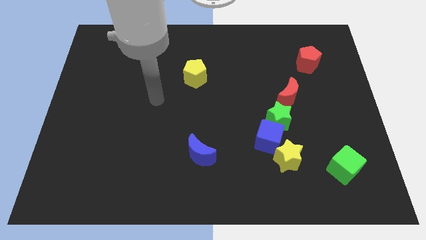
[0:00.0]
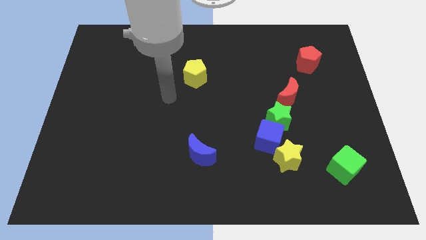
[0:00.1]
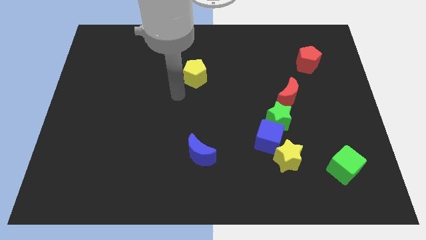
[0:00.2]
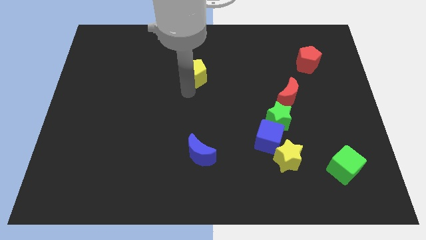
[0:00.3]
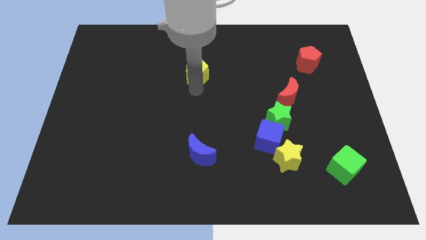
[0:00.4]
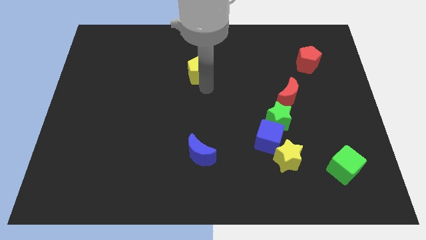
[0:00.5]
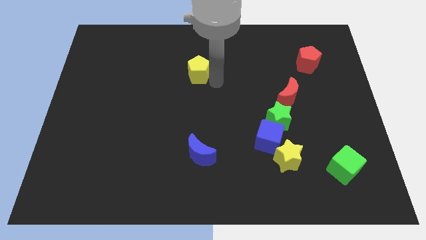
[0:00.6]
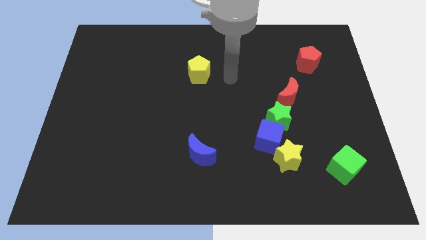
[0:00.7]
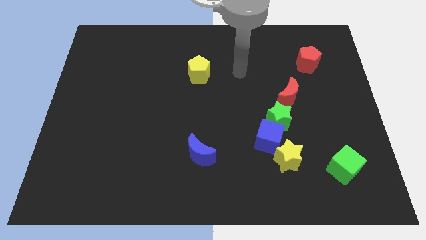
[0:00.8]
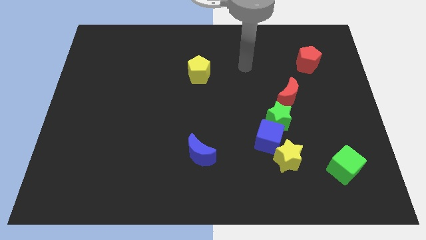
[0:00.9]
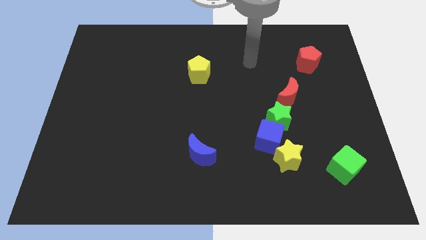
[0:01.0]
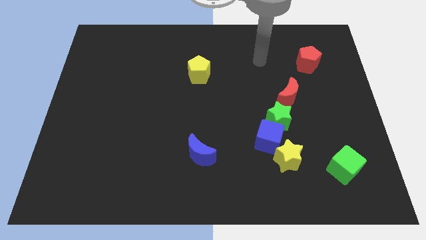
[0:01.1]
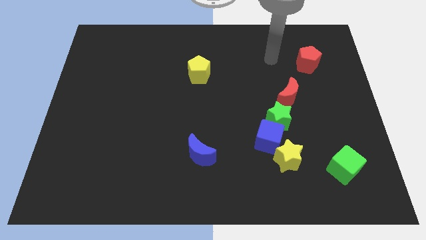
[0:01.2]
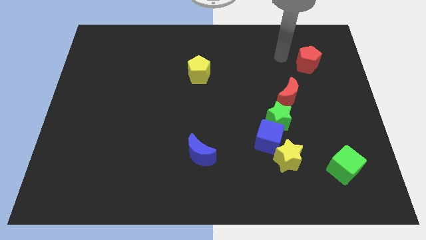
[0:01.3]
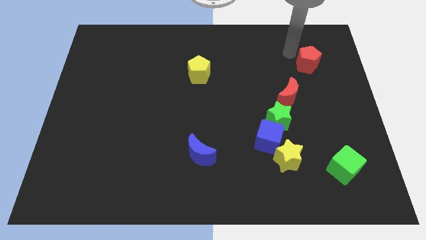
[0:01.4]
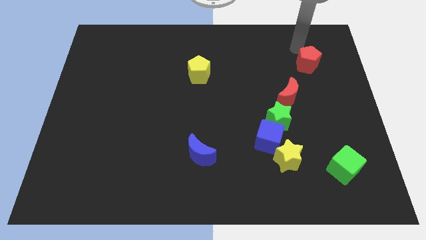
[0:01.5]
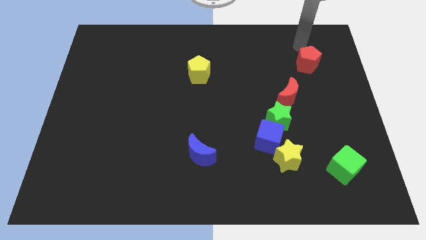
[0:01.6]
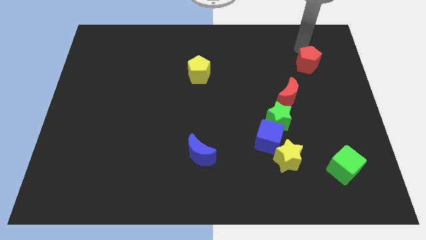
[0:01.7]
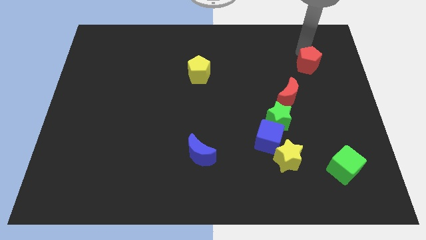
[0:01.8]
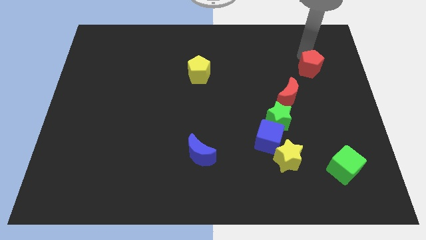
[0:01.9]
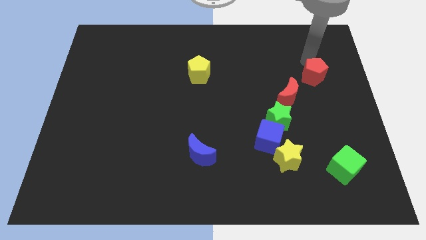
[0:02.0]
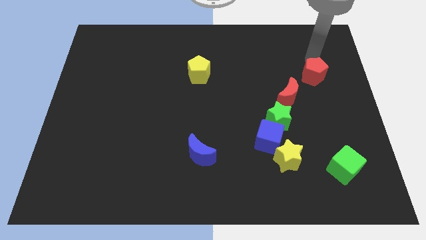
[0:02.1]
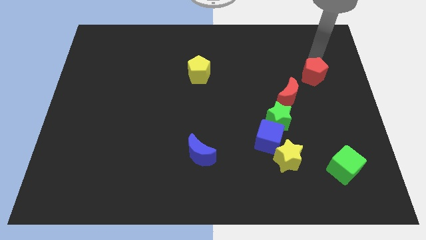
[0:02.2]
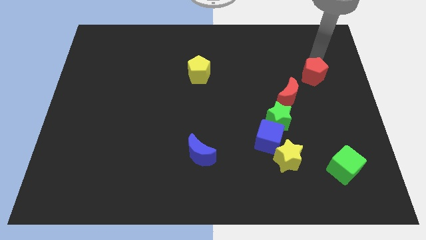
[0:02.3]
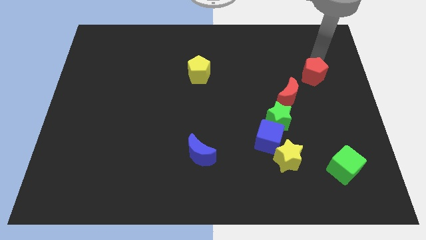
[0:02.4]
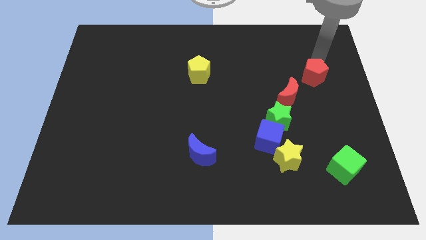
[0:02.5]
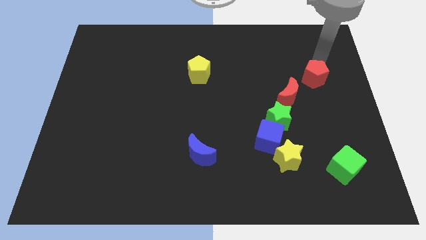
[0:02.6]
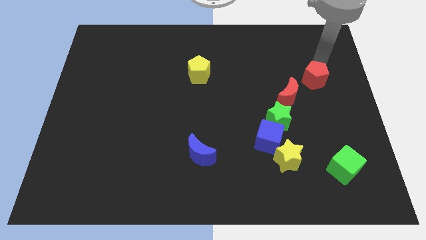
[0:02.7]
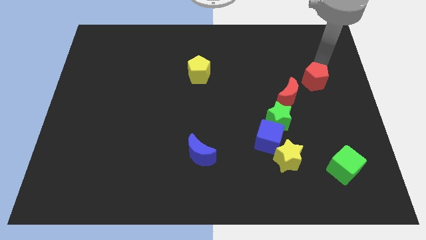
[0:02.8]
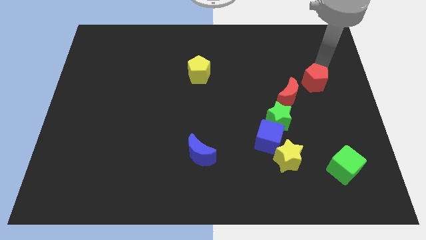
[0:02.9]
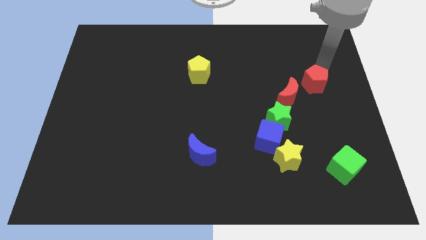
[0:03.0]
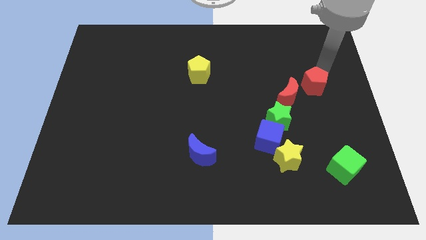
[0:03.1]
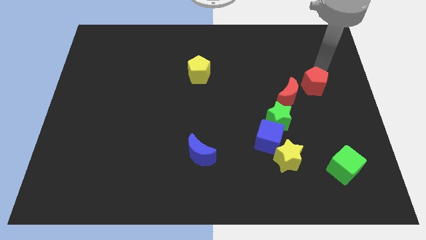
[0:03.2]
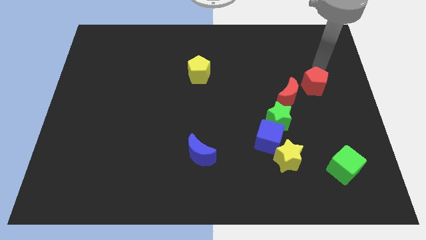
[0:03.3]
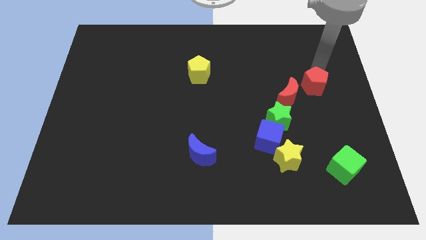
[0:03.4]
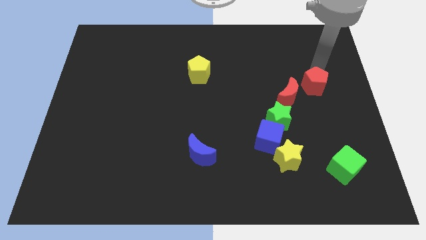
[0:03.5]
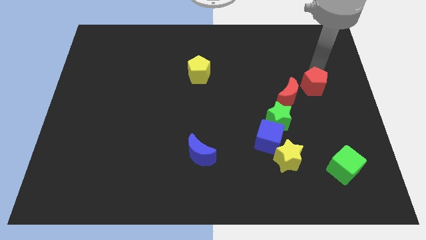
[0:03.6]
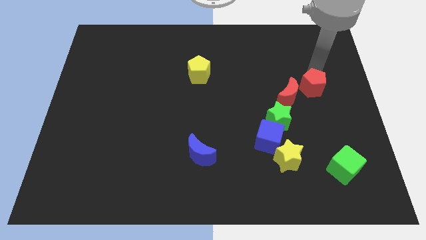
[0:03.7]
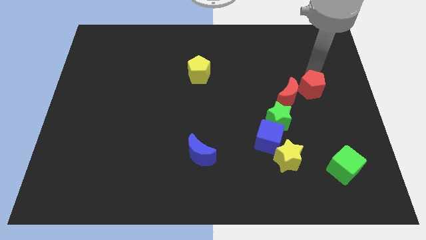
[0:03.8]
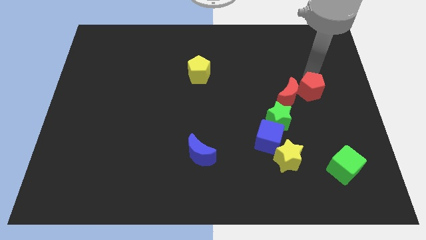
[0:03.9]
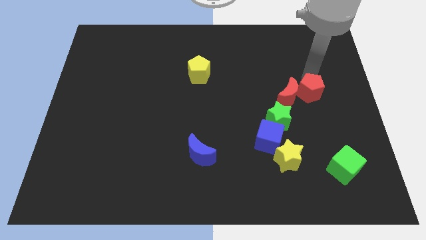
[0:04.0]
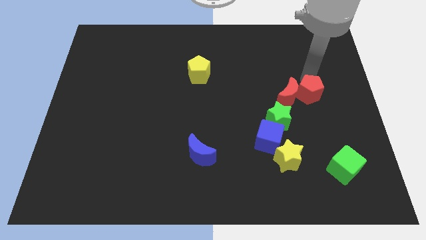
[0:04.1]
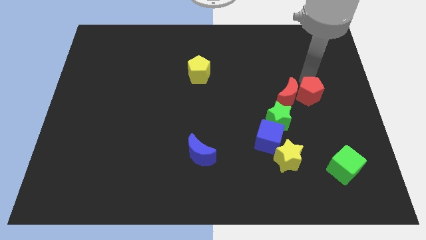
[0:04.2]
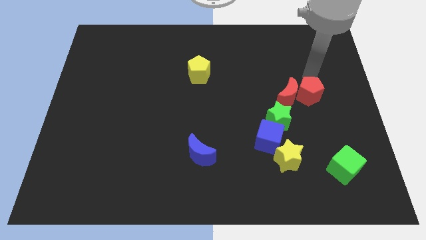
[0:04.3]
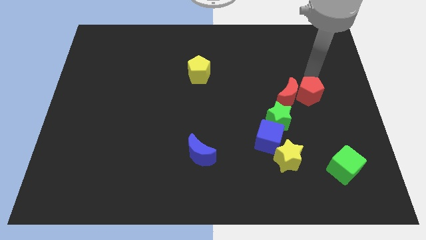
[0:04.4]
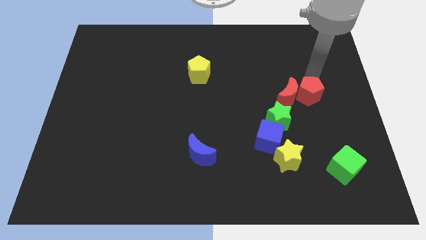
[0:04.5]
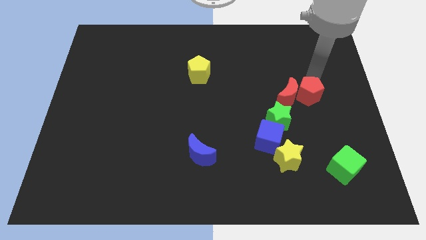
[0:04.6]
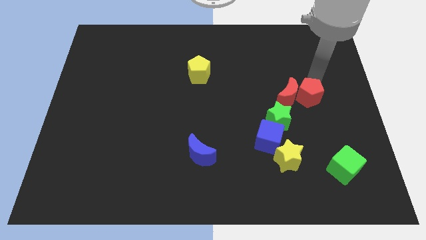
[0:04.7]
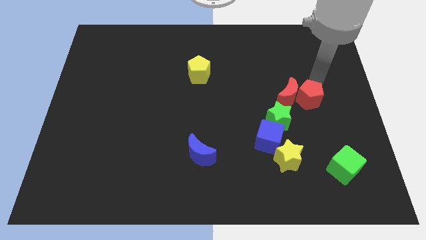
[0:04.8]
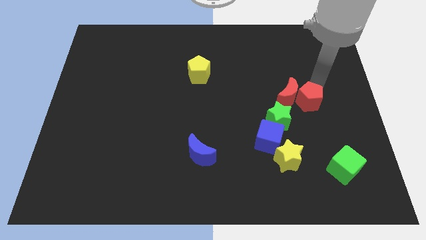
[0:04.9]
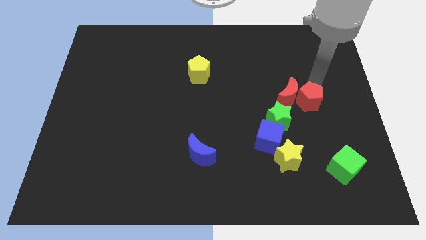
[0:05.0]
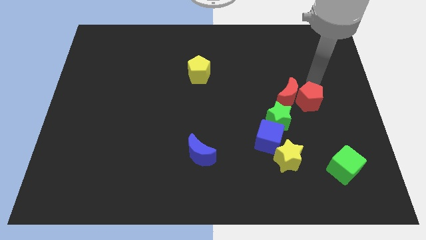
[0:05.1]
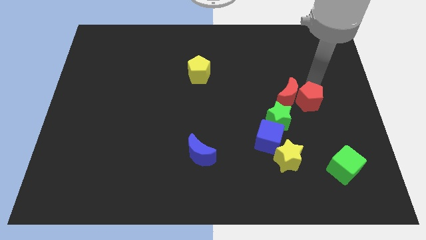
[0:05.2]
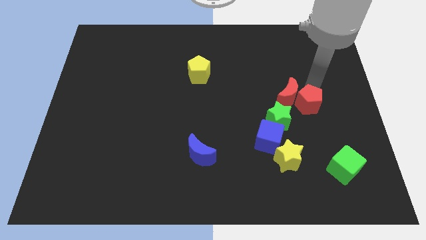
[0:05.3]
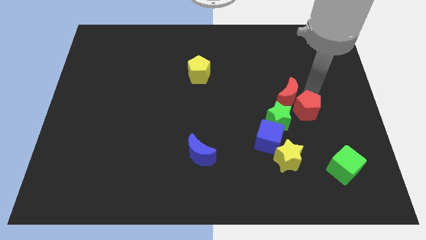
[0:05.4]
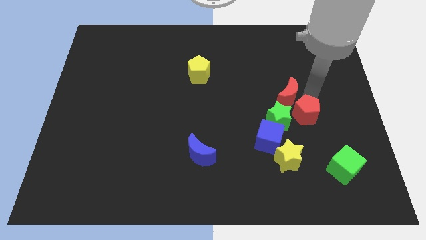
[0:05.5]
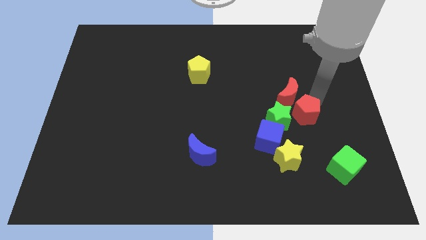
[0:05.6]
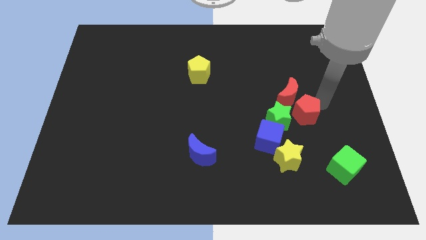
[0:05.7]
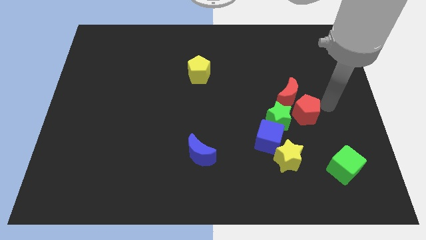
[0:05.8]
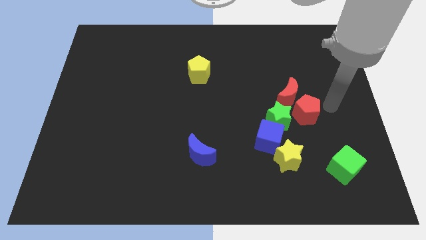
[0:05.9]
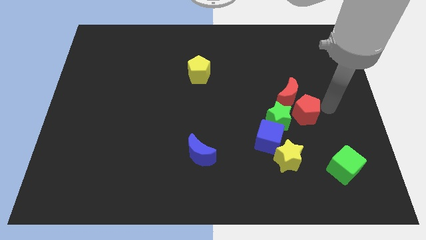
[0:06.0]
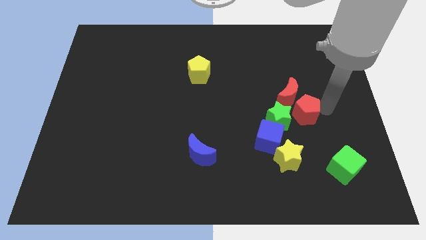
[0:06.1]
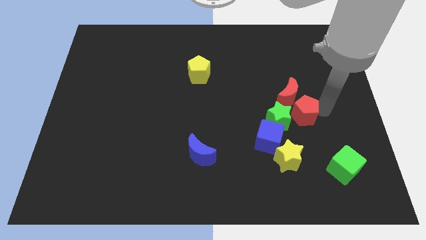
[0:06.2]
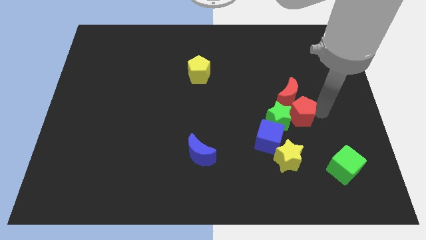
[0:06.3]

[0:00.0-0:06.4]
move the red pentagon next to the green star

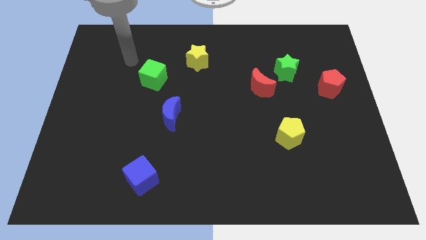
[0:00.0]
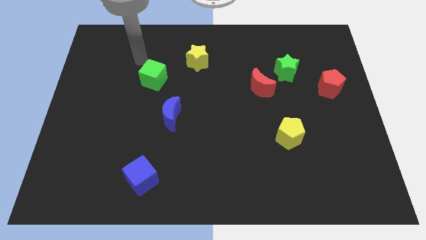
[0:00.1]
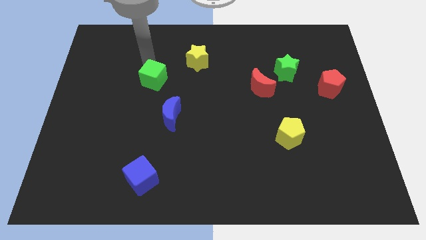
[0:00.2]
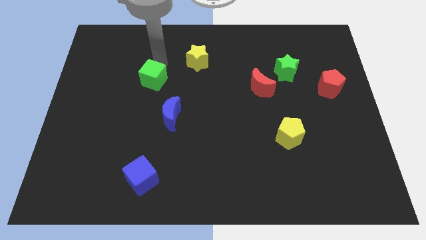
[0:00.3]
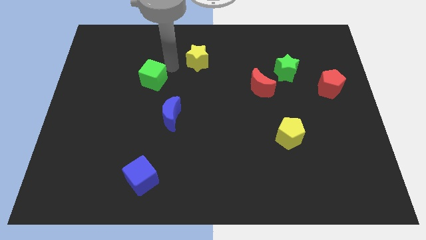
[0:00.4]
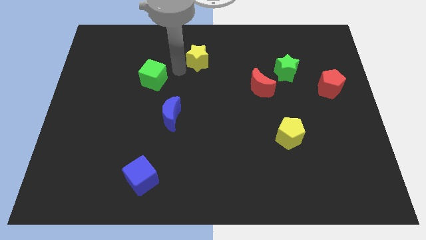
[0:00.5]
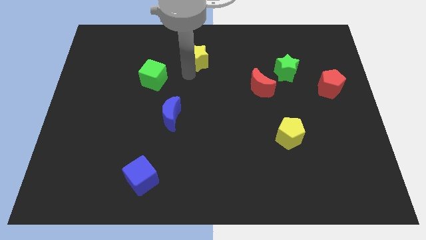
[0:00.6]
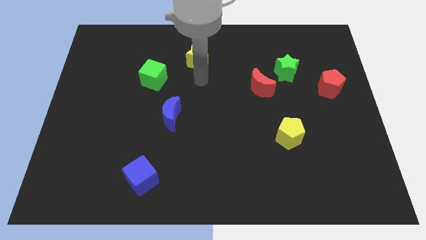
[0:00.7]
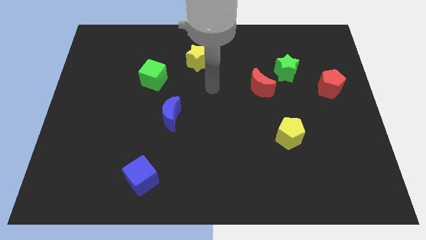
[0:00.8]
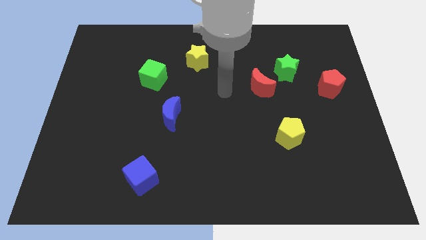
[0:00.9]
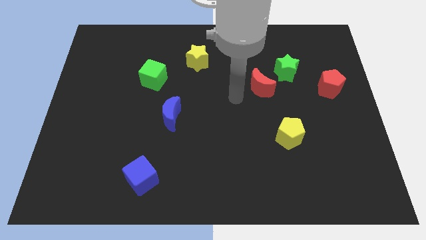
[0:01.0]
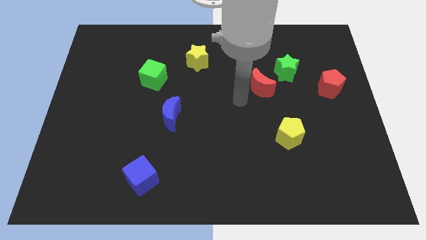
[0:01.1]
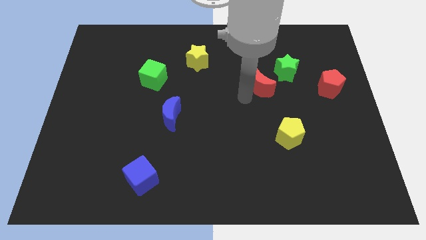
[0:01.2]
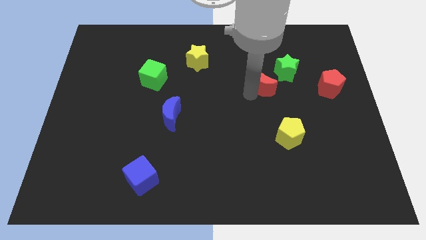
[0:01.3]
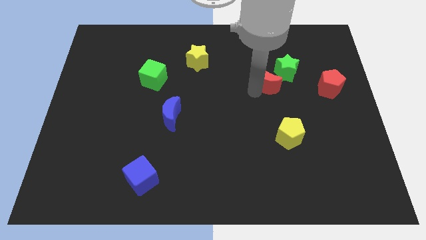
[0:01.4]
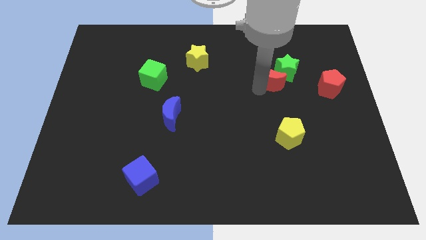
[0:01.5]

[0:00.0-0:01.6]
slide the red moon next to the green star

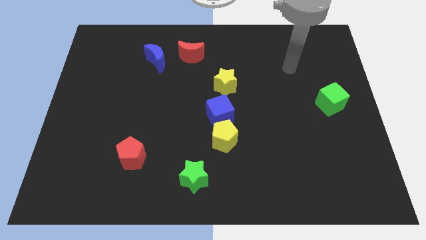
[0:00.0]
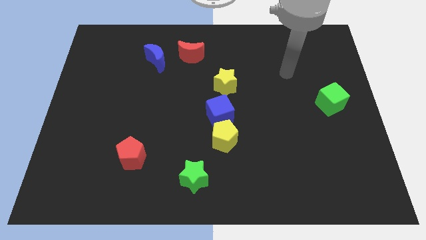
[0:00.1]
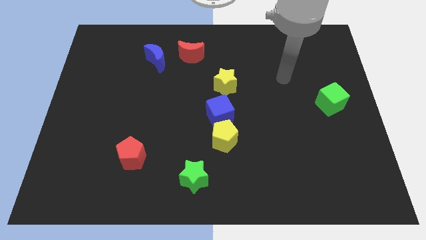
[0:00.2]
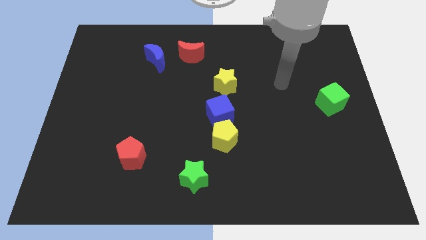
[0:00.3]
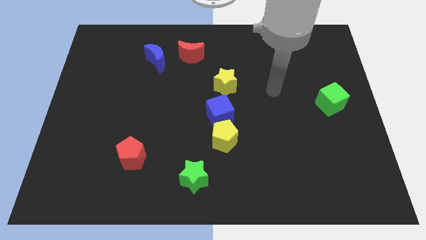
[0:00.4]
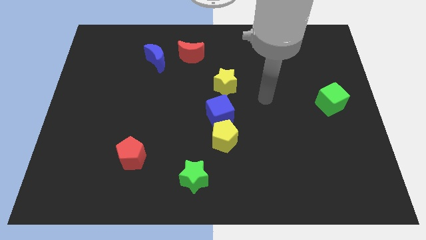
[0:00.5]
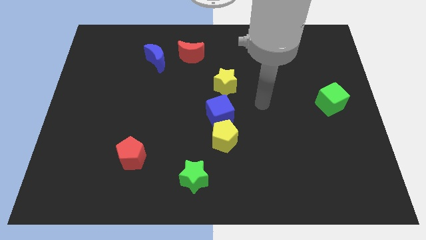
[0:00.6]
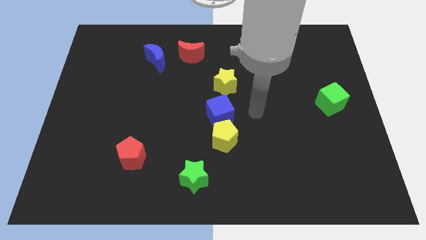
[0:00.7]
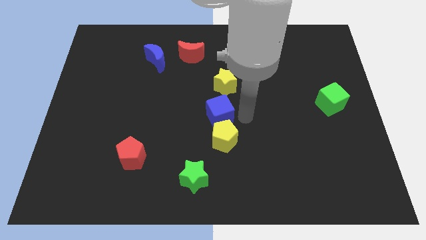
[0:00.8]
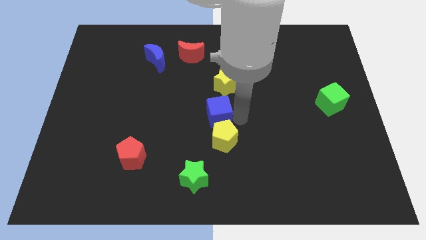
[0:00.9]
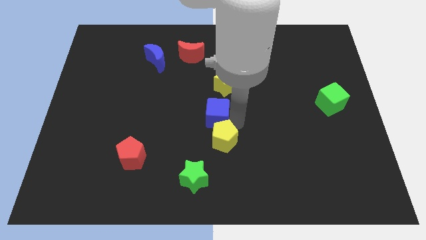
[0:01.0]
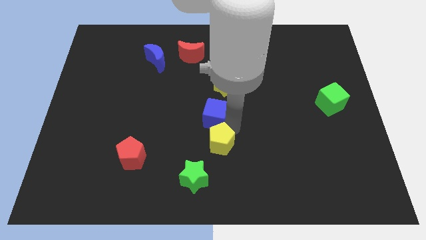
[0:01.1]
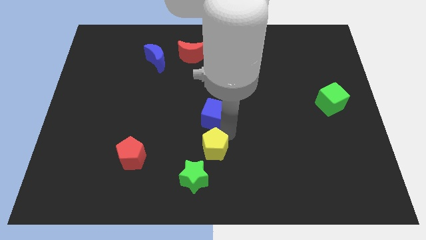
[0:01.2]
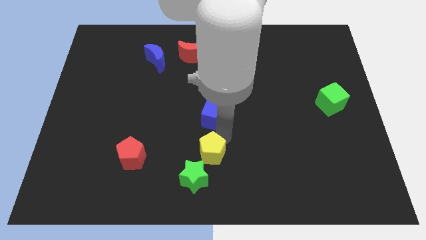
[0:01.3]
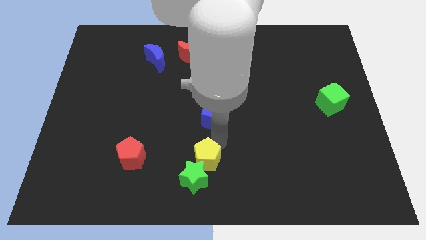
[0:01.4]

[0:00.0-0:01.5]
move the yellow pentagon close to the green star
